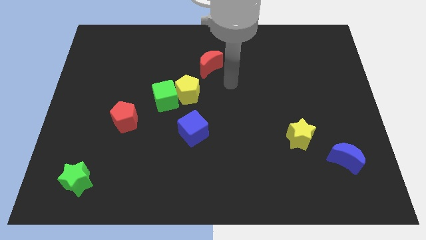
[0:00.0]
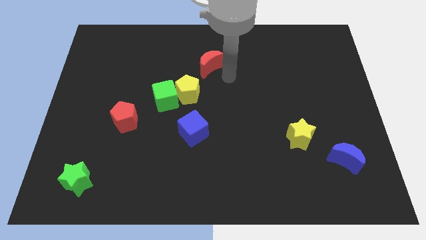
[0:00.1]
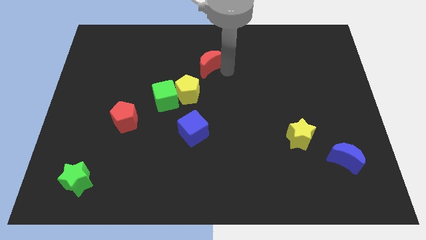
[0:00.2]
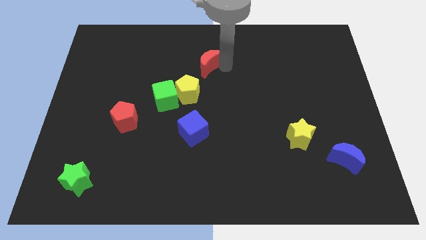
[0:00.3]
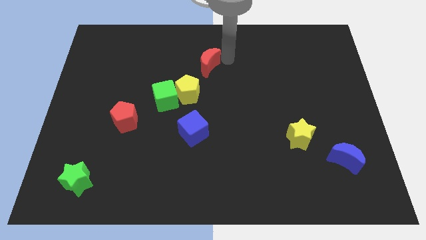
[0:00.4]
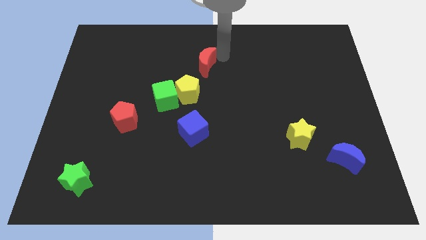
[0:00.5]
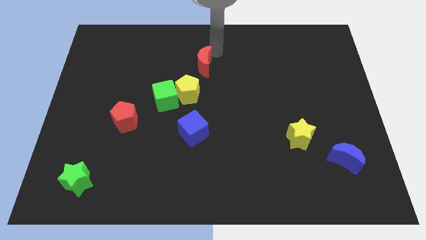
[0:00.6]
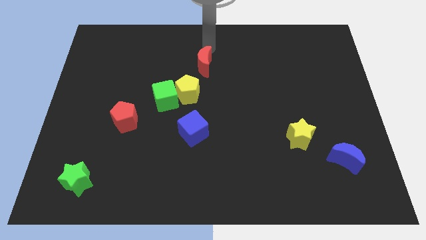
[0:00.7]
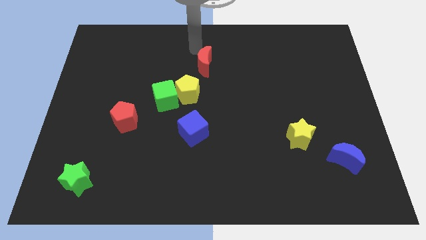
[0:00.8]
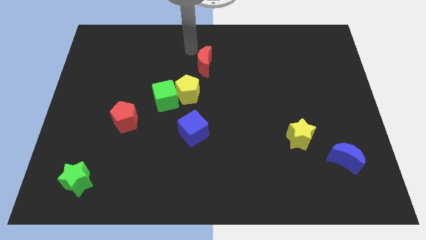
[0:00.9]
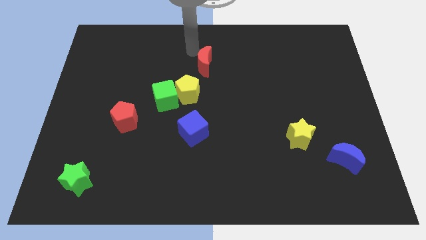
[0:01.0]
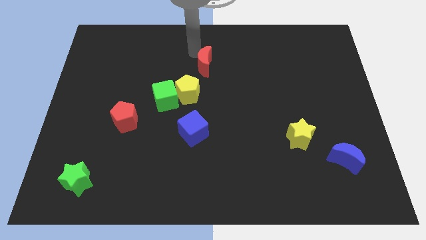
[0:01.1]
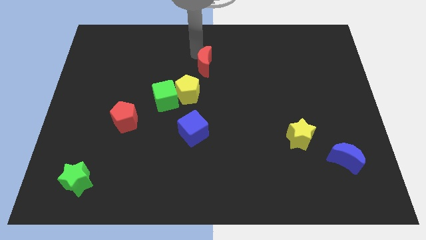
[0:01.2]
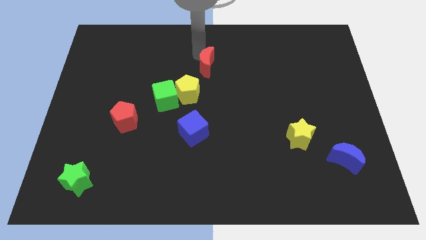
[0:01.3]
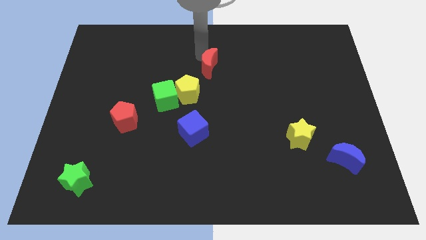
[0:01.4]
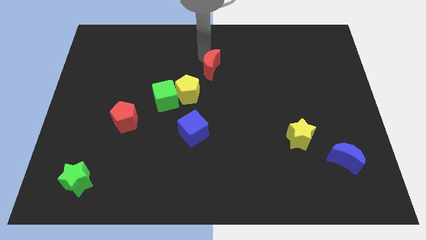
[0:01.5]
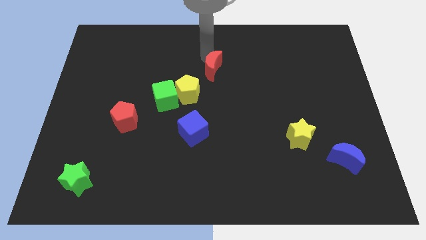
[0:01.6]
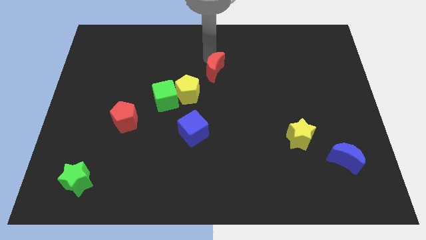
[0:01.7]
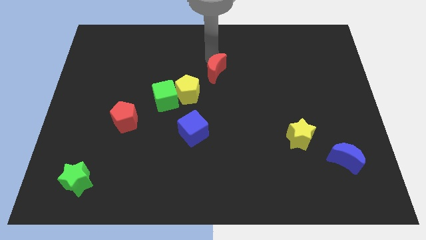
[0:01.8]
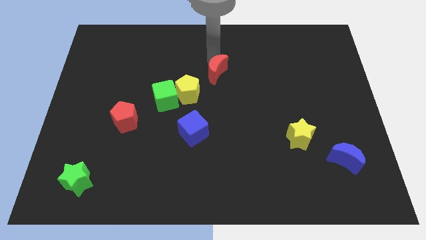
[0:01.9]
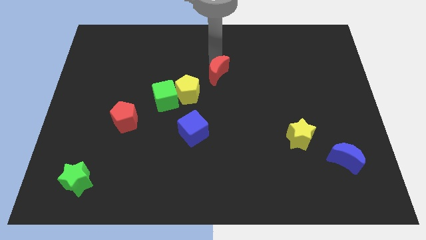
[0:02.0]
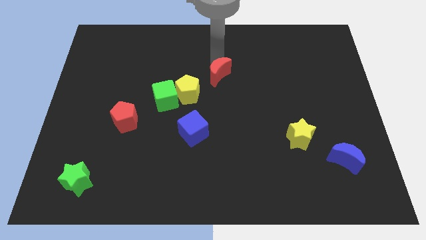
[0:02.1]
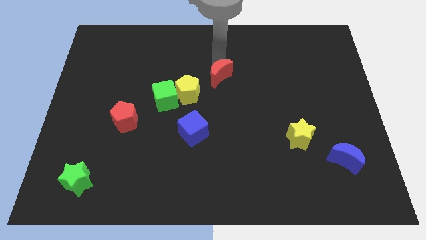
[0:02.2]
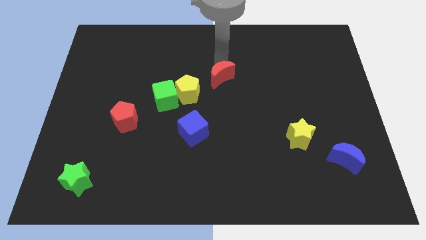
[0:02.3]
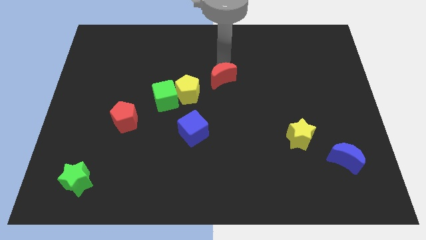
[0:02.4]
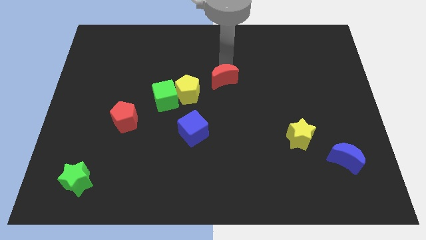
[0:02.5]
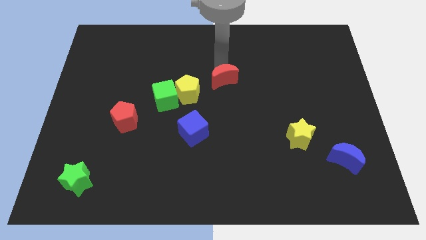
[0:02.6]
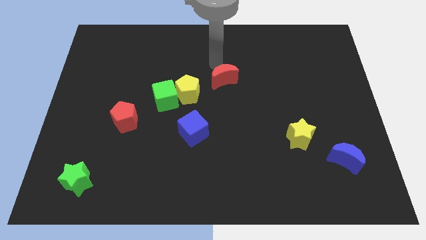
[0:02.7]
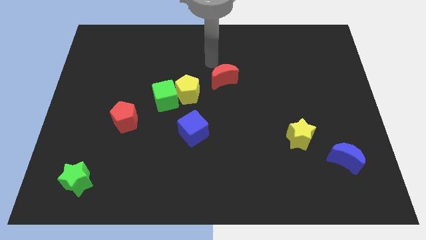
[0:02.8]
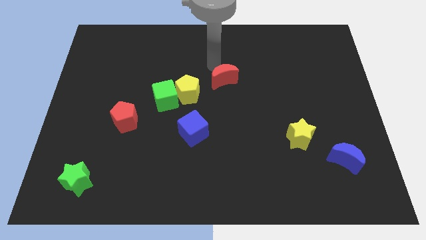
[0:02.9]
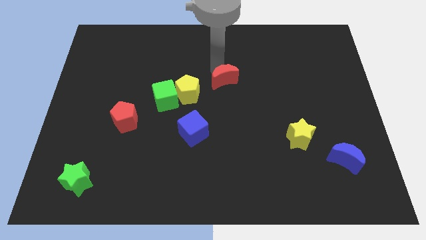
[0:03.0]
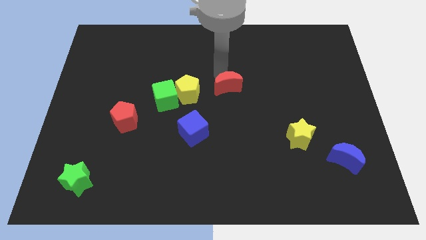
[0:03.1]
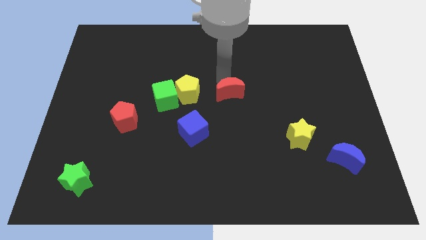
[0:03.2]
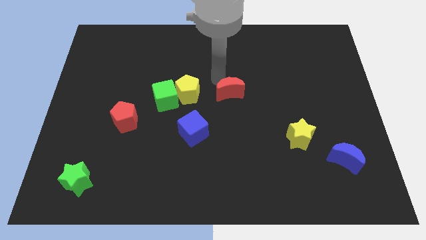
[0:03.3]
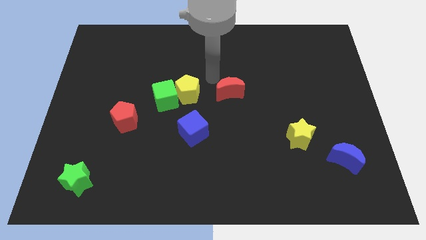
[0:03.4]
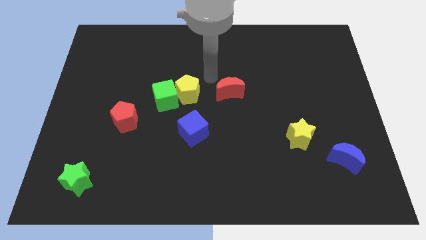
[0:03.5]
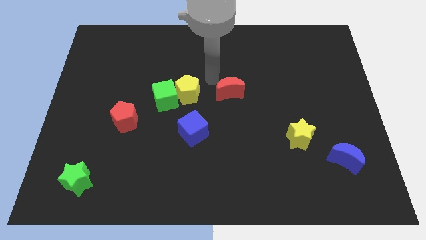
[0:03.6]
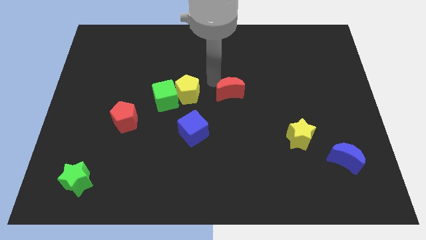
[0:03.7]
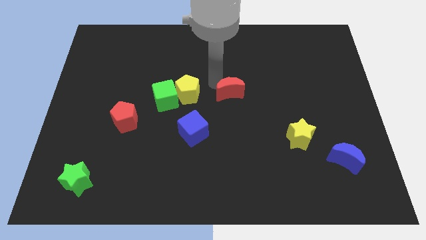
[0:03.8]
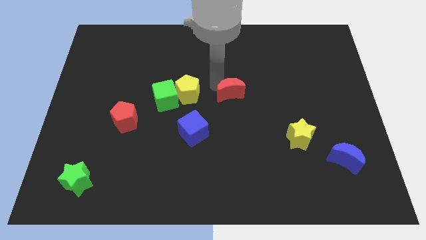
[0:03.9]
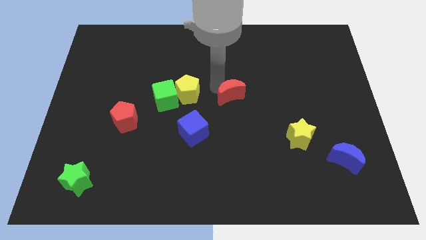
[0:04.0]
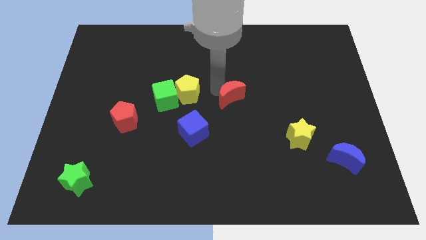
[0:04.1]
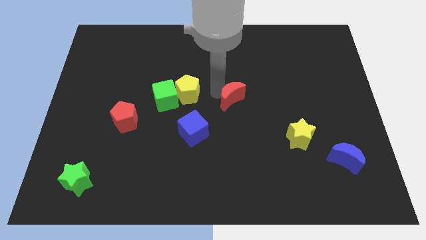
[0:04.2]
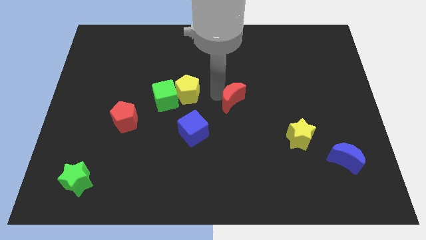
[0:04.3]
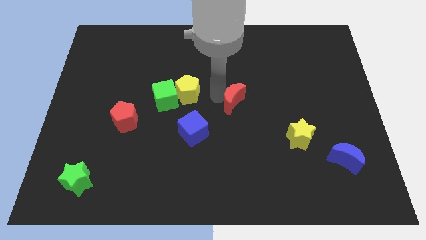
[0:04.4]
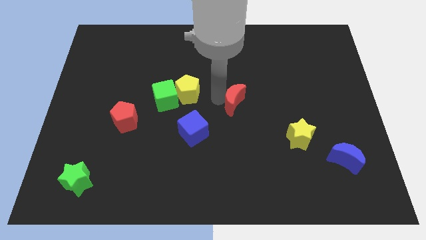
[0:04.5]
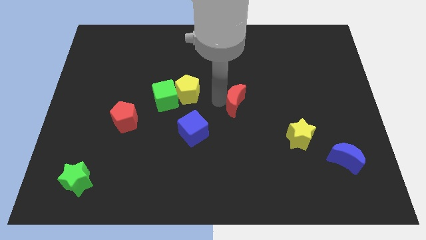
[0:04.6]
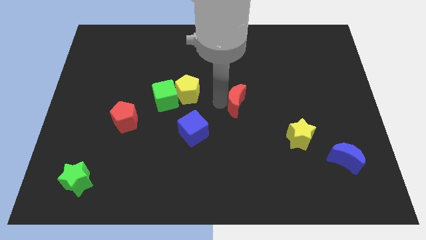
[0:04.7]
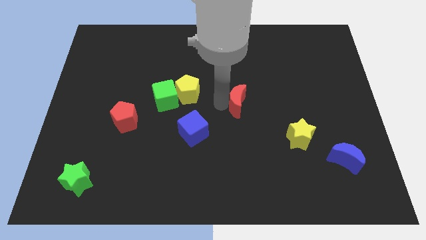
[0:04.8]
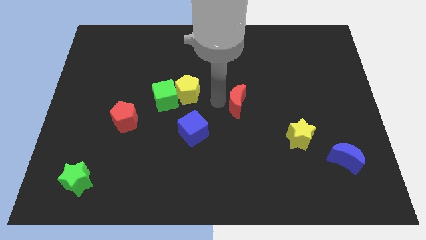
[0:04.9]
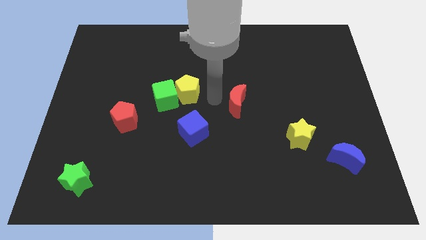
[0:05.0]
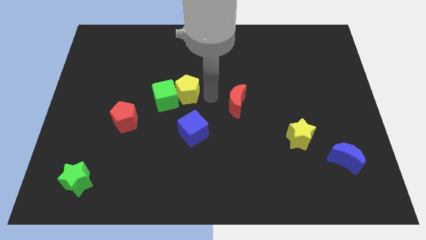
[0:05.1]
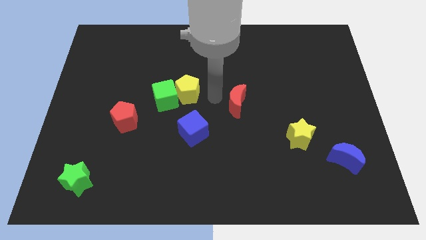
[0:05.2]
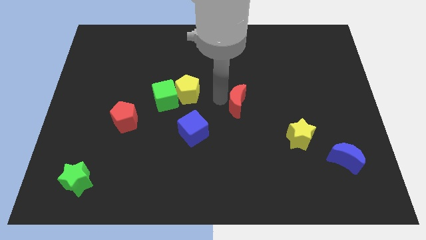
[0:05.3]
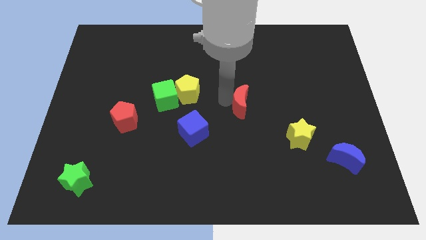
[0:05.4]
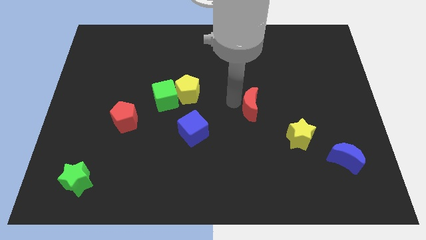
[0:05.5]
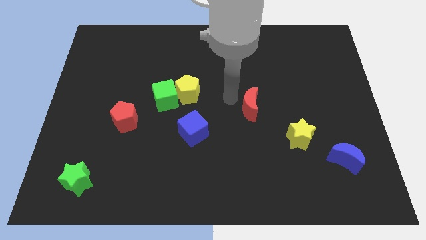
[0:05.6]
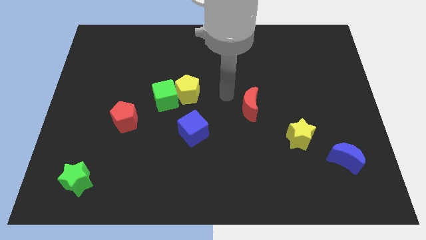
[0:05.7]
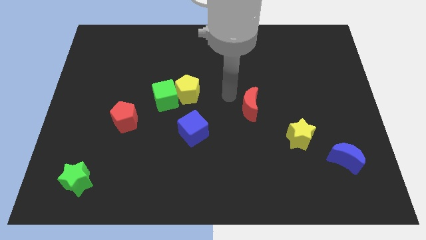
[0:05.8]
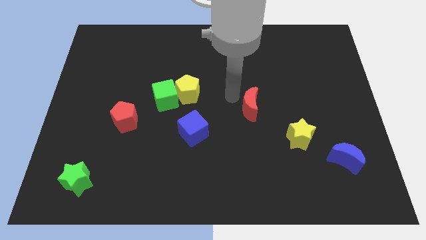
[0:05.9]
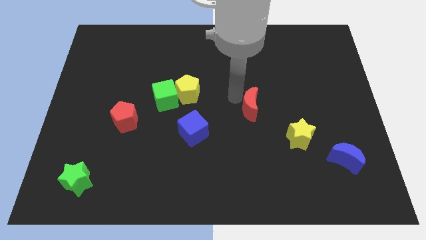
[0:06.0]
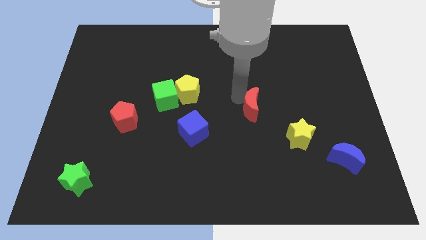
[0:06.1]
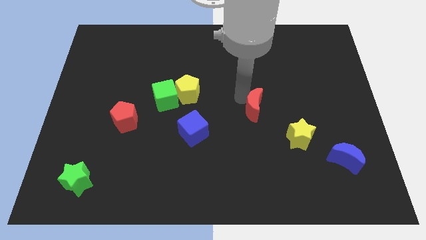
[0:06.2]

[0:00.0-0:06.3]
move the red moon to the top left side of the yellow star

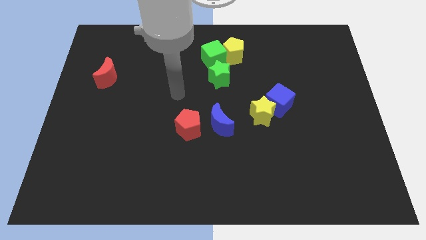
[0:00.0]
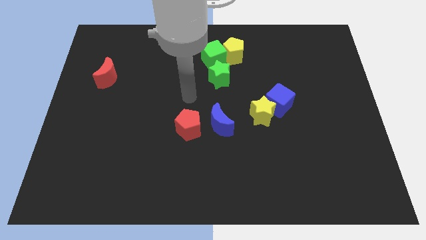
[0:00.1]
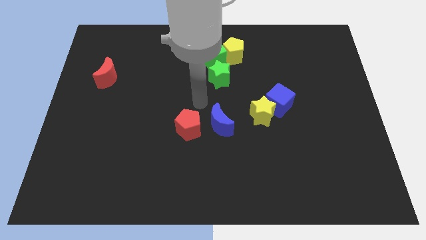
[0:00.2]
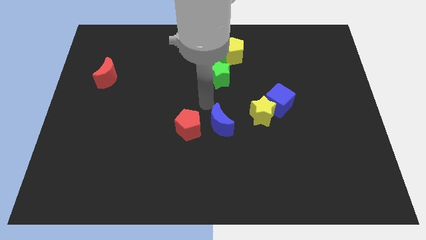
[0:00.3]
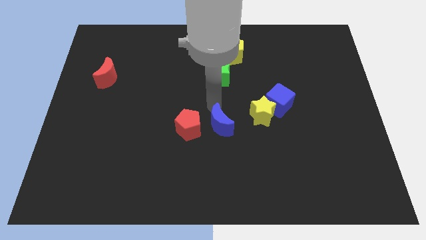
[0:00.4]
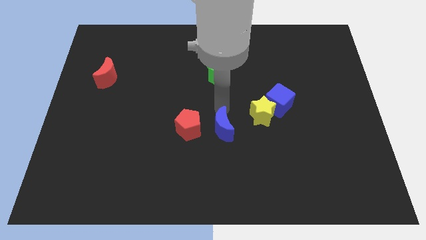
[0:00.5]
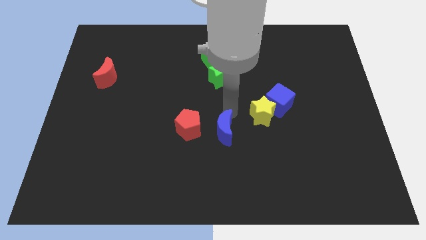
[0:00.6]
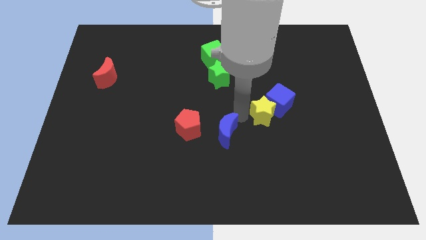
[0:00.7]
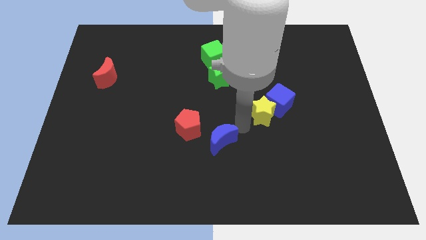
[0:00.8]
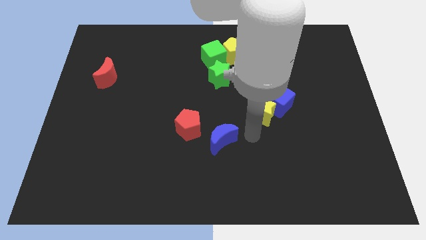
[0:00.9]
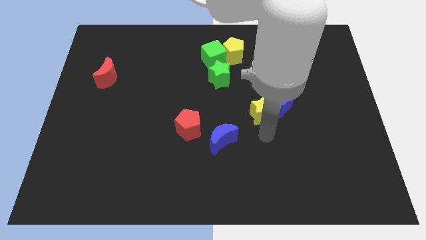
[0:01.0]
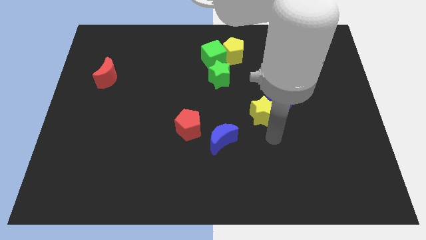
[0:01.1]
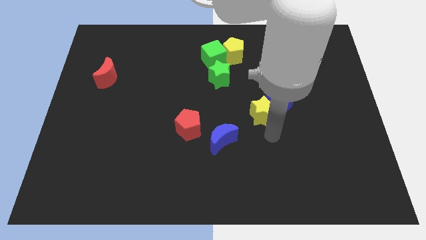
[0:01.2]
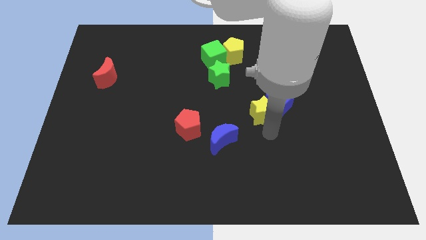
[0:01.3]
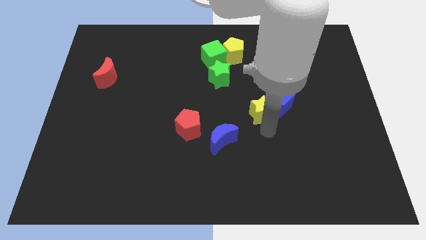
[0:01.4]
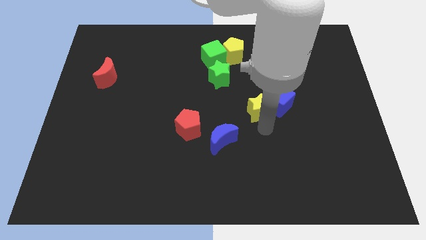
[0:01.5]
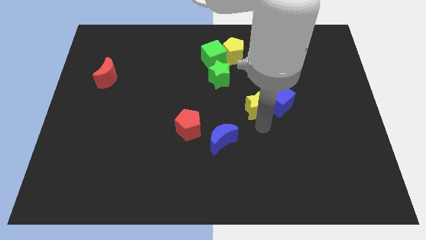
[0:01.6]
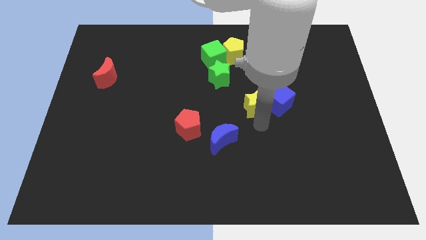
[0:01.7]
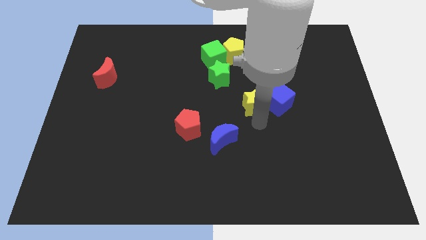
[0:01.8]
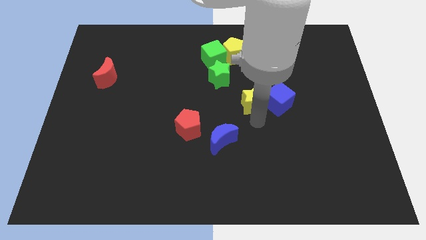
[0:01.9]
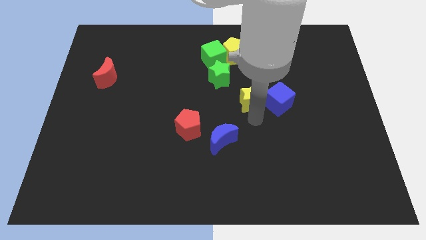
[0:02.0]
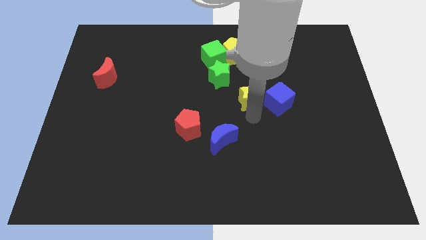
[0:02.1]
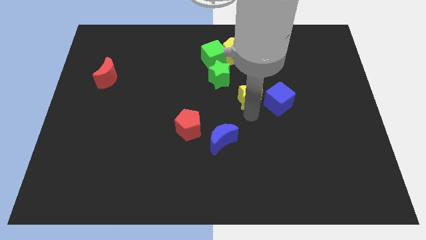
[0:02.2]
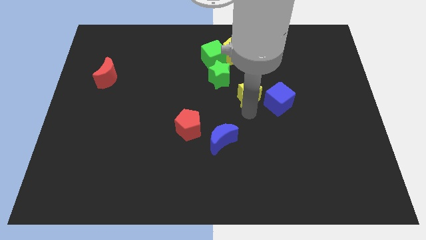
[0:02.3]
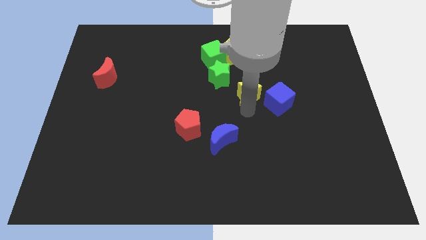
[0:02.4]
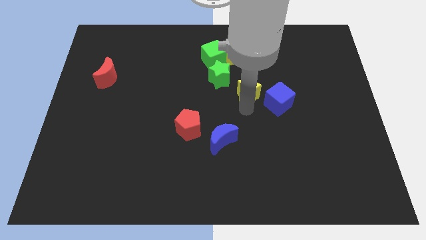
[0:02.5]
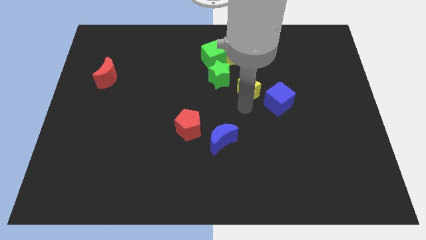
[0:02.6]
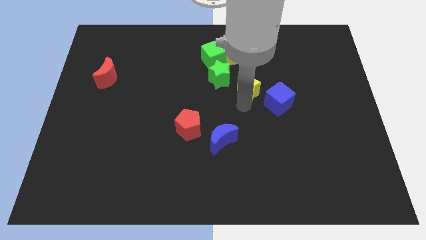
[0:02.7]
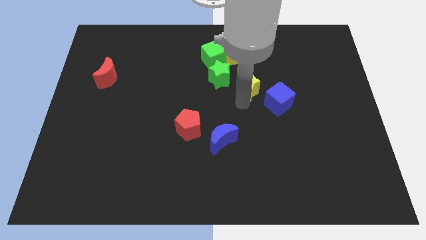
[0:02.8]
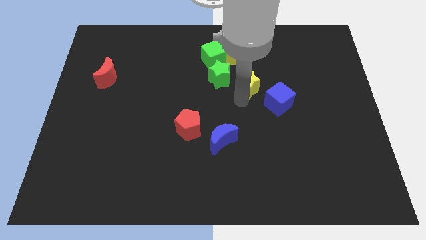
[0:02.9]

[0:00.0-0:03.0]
put the yellow star to the bottom right of the green cube
